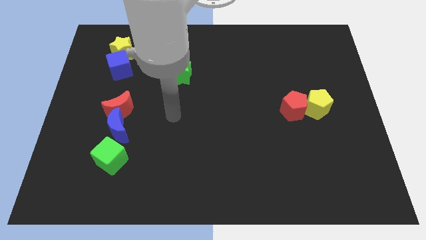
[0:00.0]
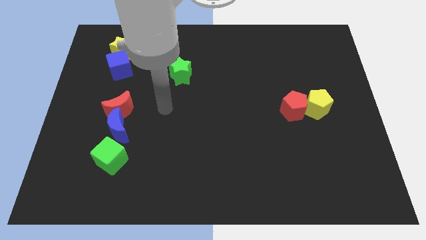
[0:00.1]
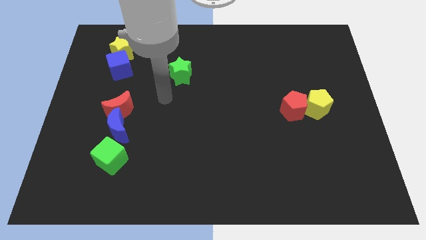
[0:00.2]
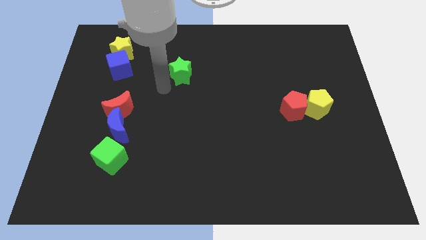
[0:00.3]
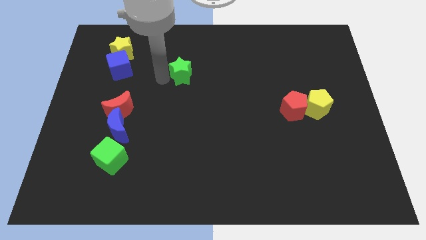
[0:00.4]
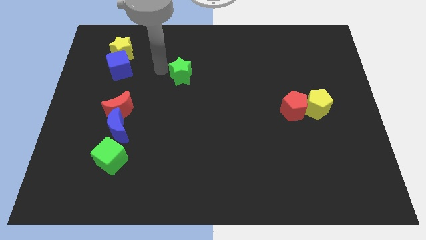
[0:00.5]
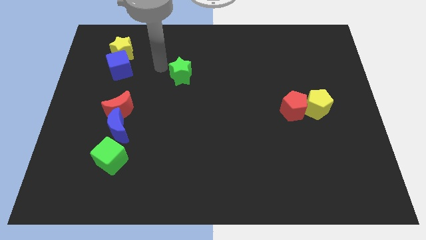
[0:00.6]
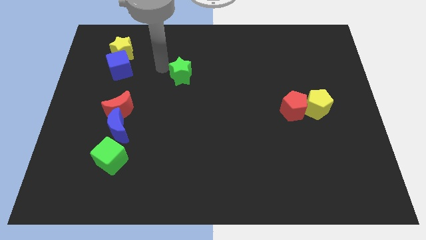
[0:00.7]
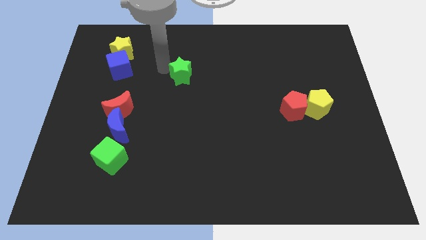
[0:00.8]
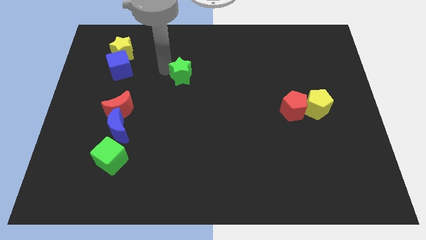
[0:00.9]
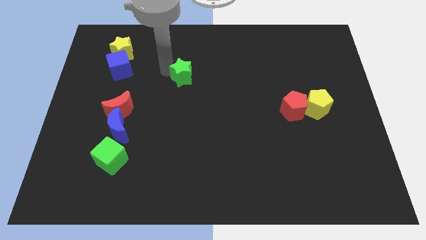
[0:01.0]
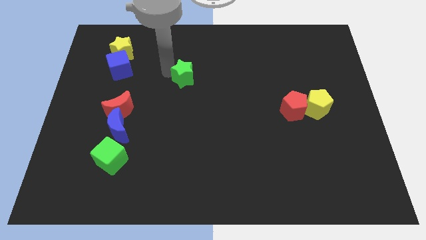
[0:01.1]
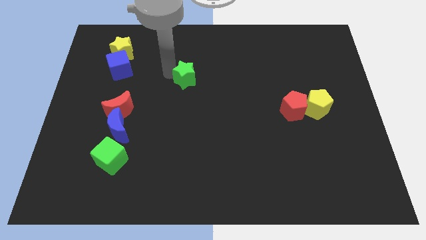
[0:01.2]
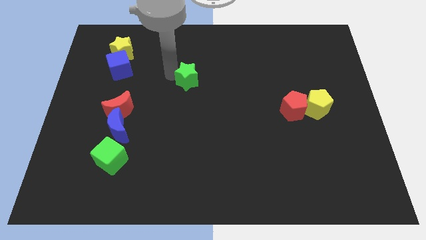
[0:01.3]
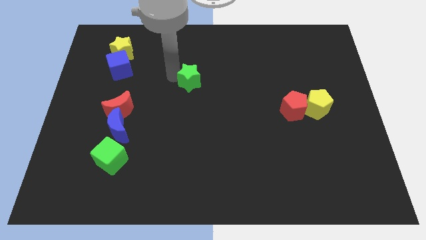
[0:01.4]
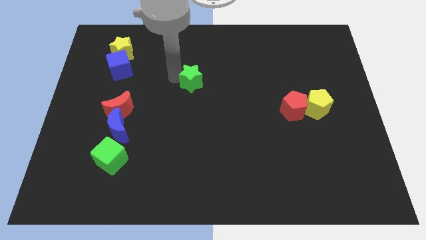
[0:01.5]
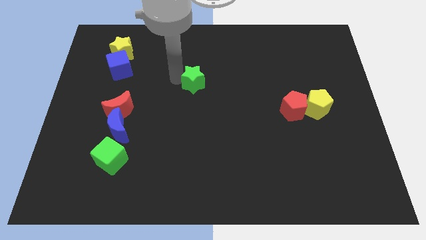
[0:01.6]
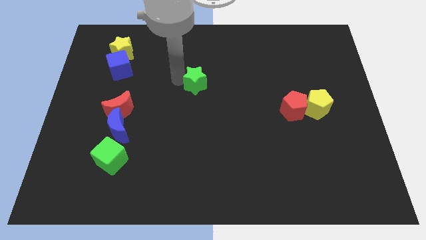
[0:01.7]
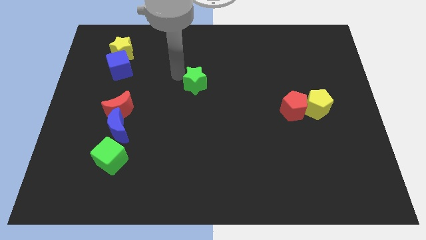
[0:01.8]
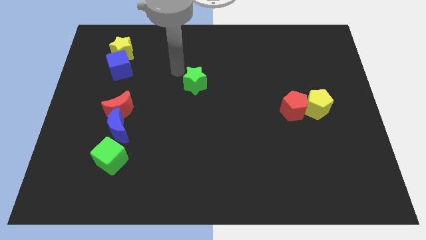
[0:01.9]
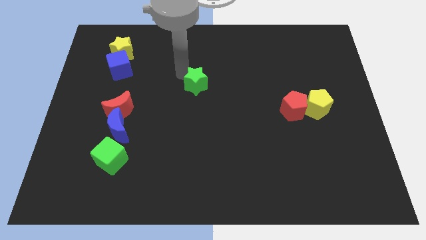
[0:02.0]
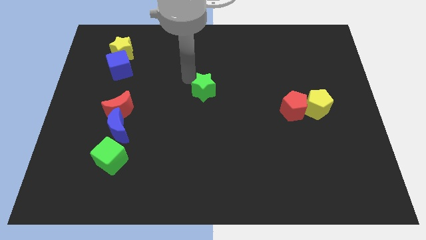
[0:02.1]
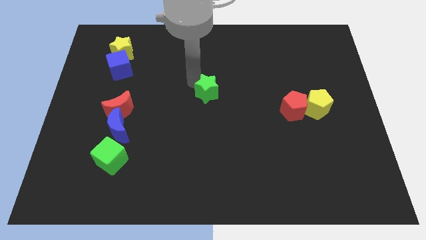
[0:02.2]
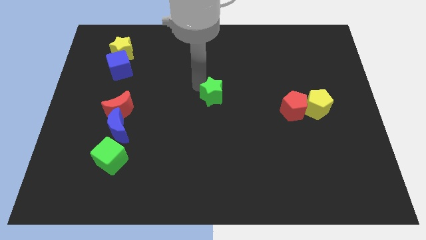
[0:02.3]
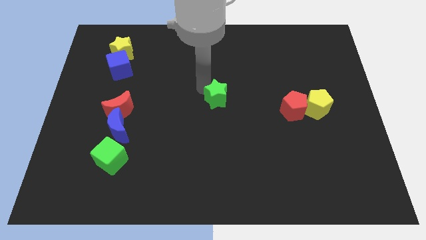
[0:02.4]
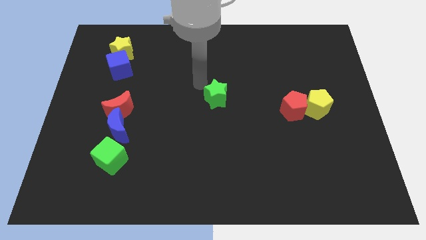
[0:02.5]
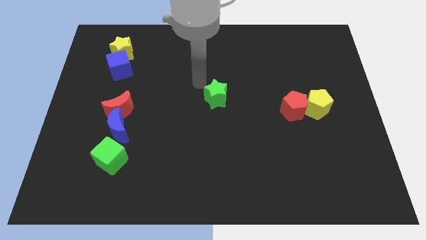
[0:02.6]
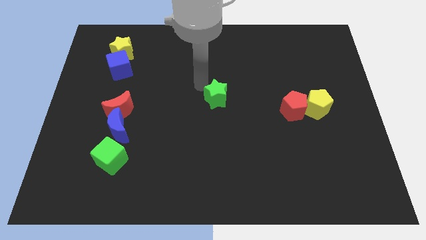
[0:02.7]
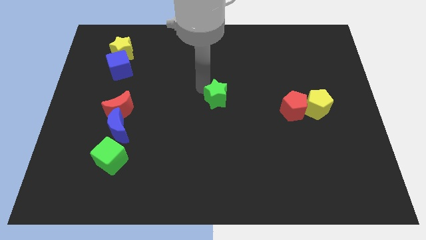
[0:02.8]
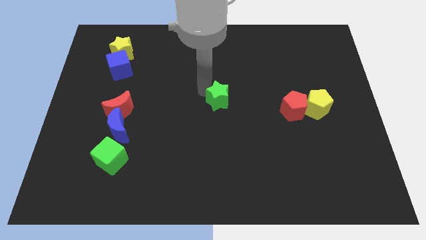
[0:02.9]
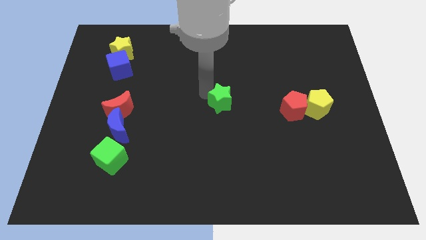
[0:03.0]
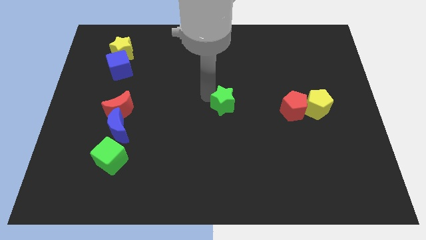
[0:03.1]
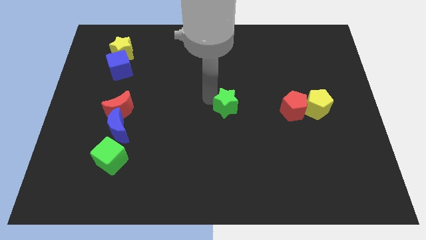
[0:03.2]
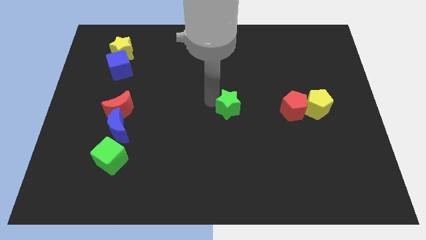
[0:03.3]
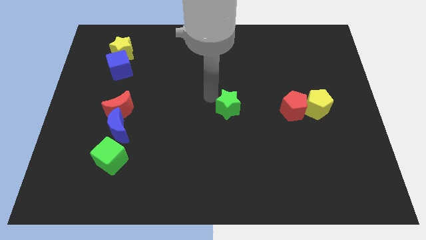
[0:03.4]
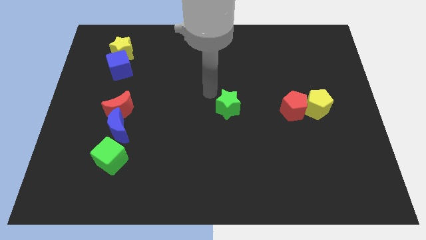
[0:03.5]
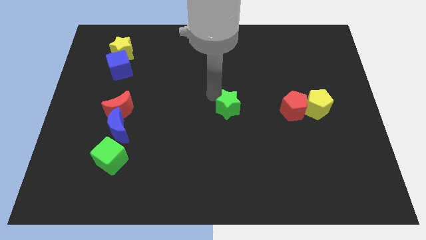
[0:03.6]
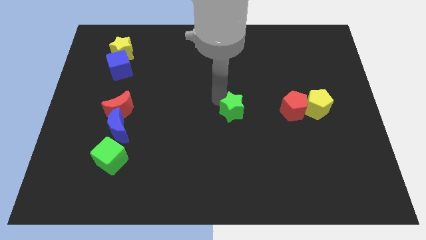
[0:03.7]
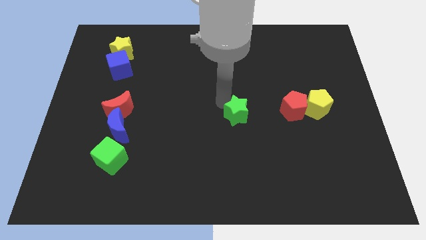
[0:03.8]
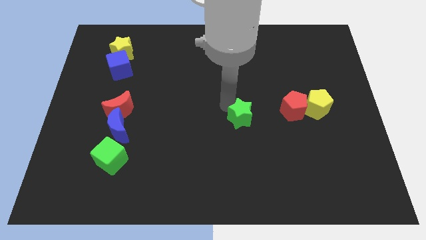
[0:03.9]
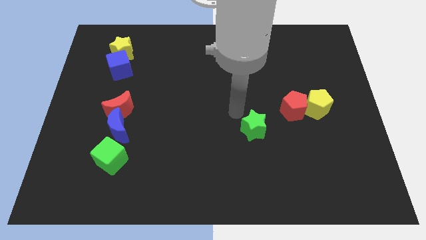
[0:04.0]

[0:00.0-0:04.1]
push the green star downwards and right diagonally

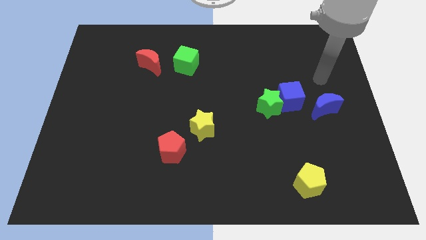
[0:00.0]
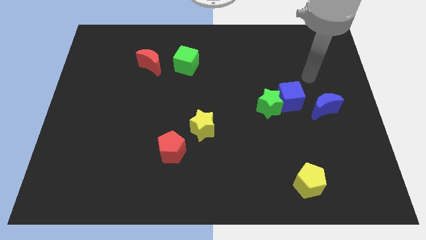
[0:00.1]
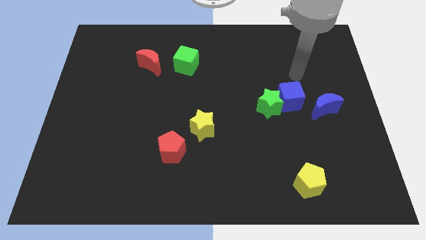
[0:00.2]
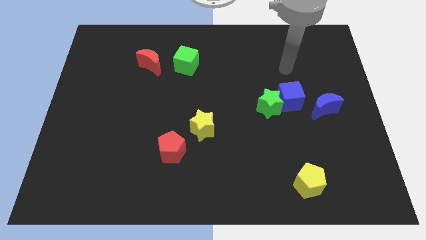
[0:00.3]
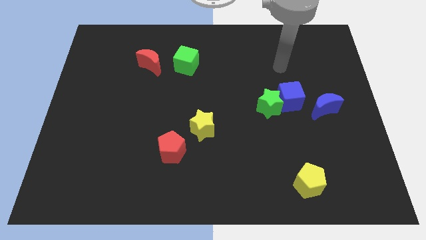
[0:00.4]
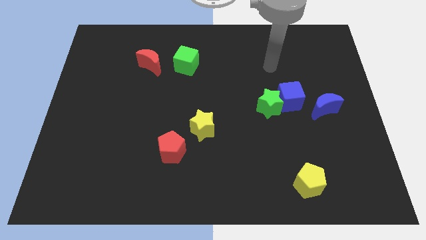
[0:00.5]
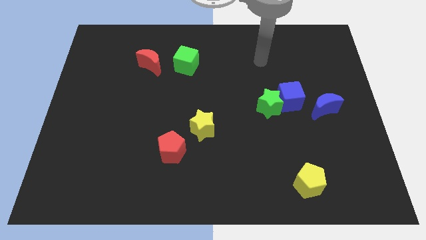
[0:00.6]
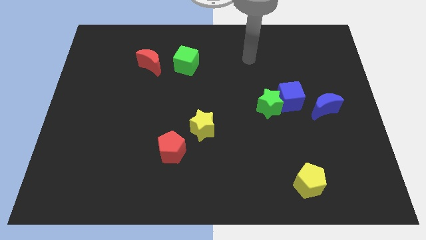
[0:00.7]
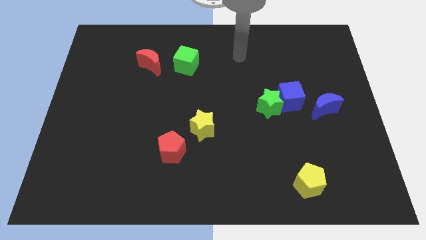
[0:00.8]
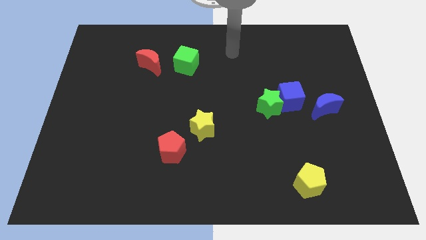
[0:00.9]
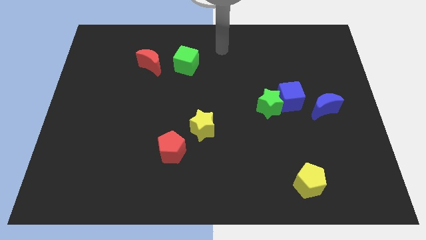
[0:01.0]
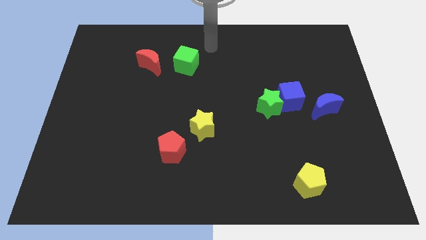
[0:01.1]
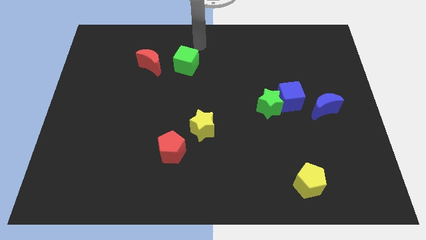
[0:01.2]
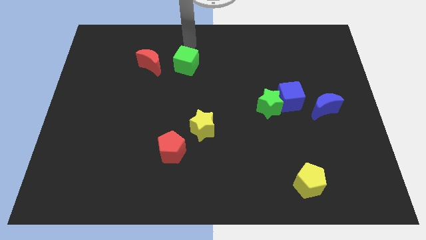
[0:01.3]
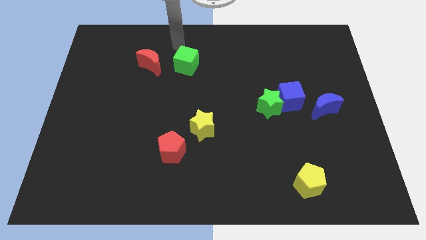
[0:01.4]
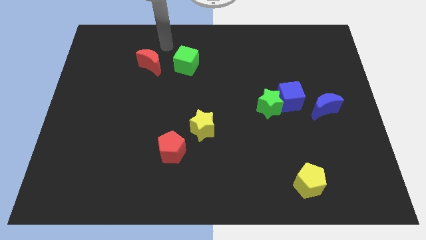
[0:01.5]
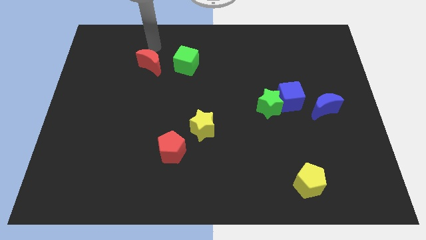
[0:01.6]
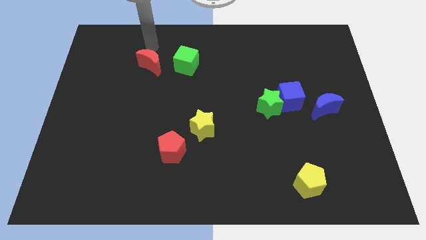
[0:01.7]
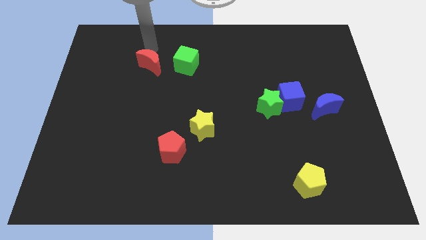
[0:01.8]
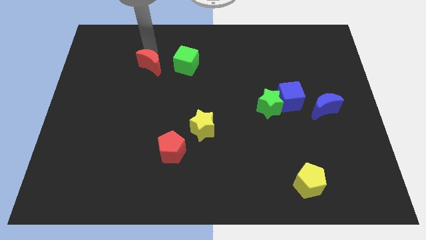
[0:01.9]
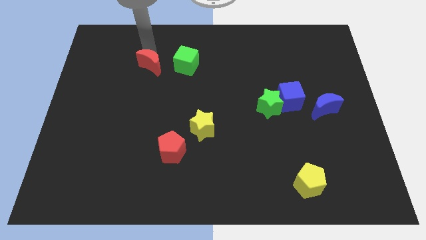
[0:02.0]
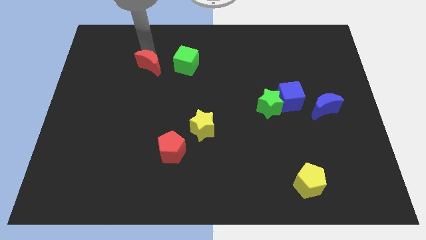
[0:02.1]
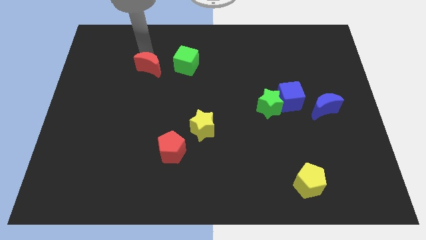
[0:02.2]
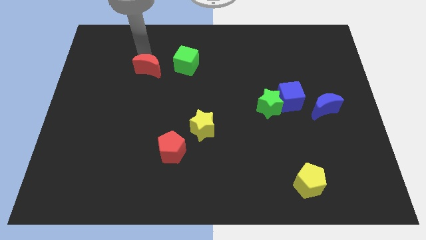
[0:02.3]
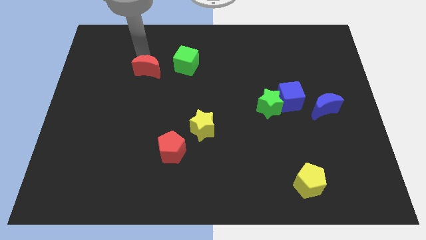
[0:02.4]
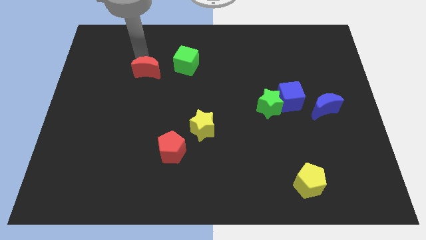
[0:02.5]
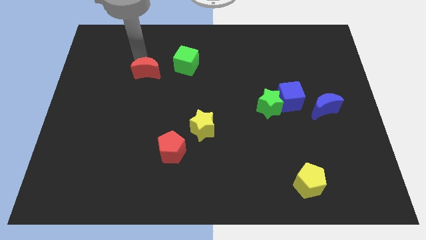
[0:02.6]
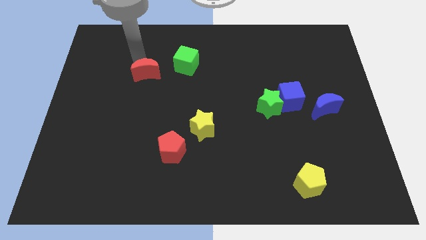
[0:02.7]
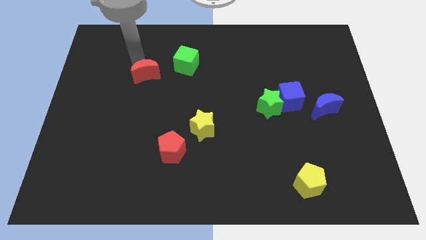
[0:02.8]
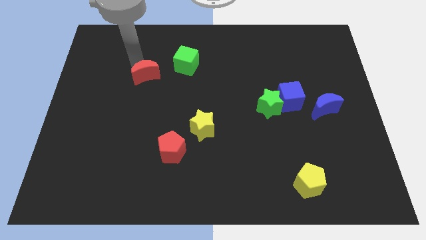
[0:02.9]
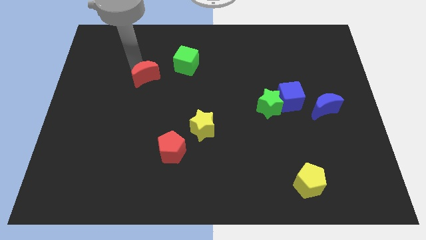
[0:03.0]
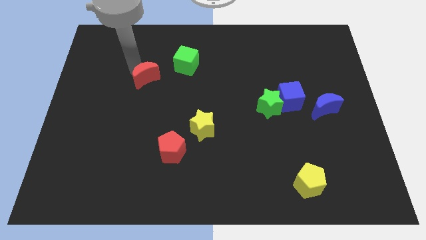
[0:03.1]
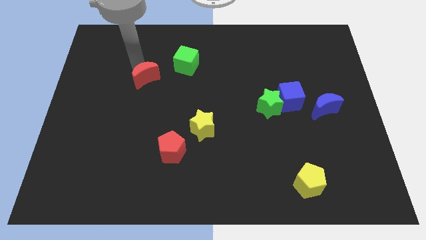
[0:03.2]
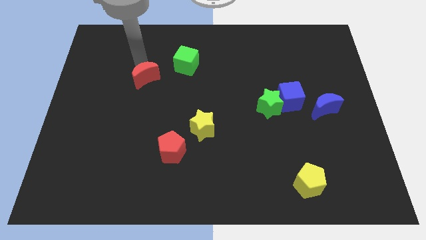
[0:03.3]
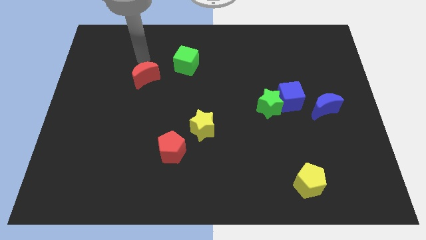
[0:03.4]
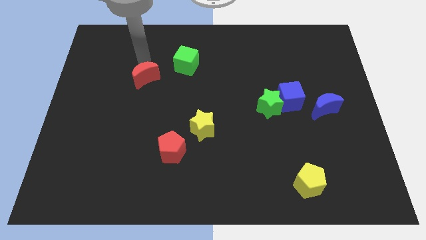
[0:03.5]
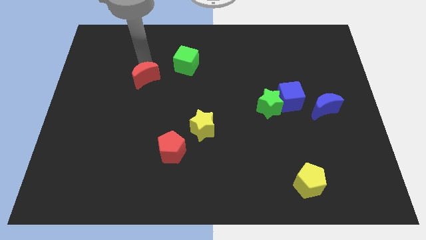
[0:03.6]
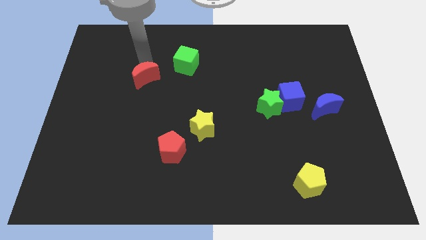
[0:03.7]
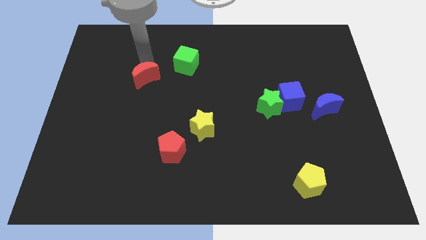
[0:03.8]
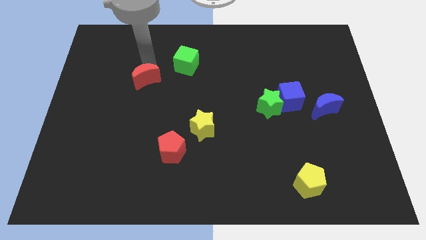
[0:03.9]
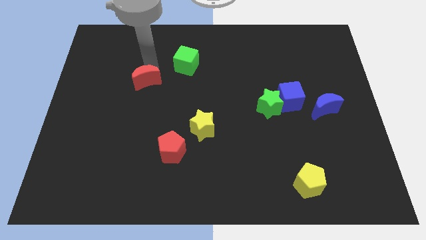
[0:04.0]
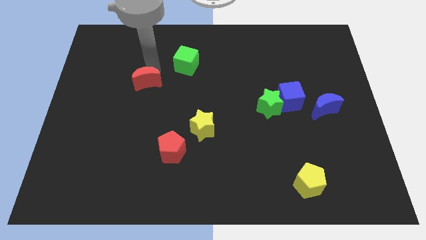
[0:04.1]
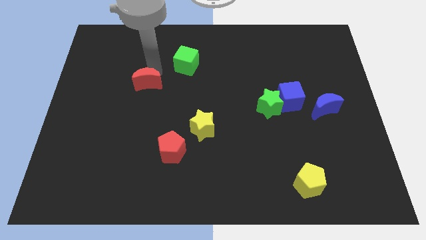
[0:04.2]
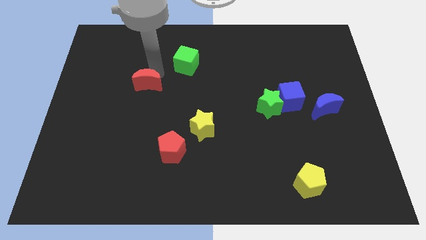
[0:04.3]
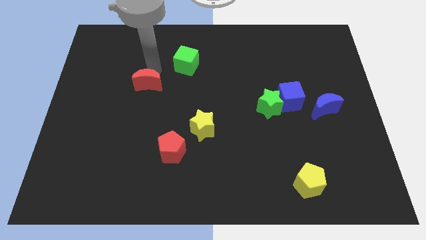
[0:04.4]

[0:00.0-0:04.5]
push the red moon a little downwards
